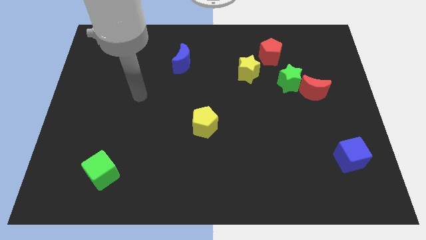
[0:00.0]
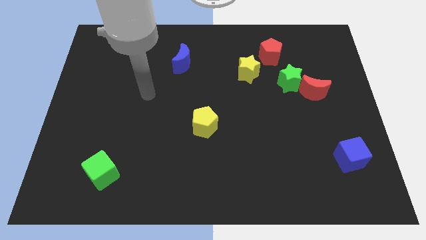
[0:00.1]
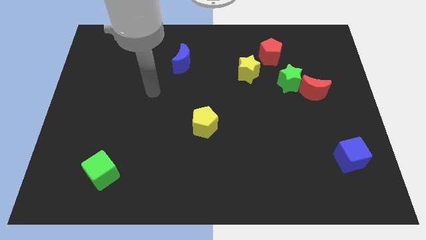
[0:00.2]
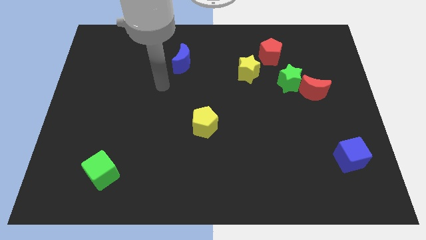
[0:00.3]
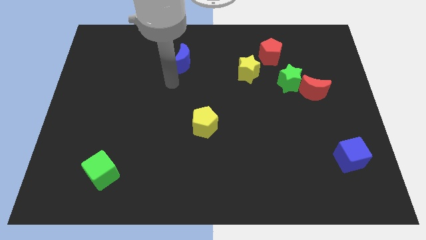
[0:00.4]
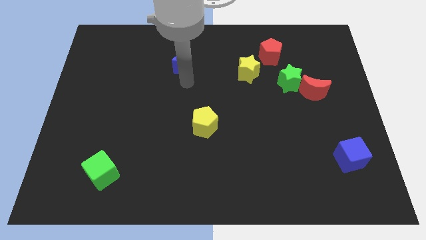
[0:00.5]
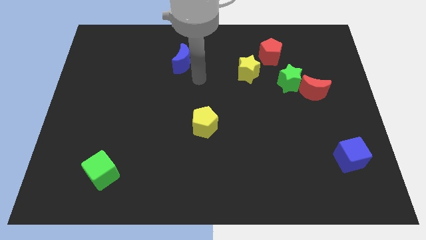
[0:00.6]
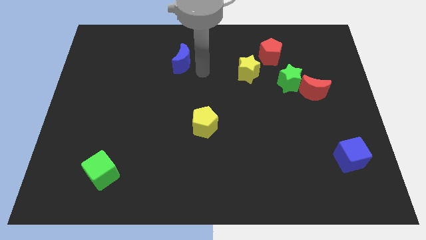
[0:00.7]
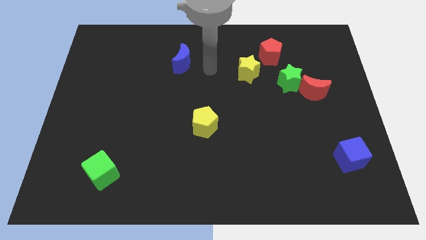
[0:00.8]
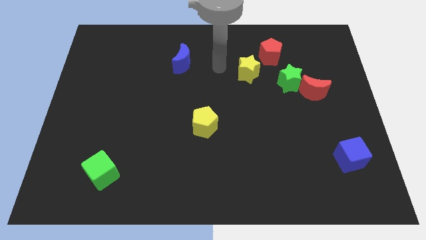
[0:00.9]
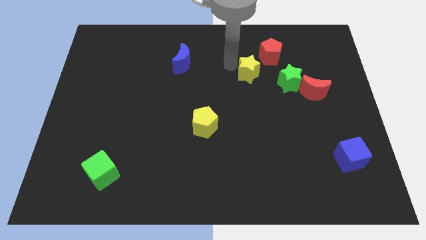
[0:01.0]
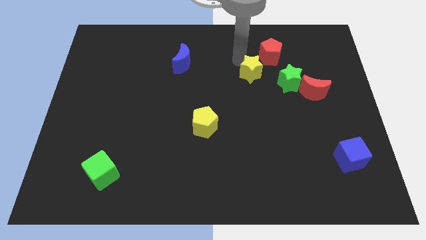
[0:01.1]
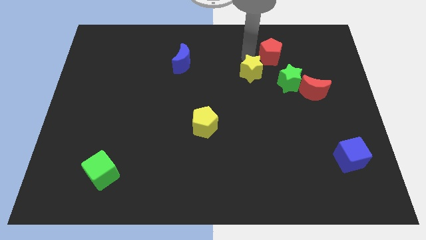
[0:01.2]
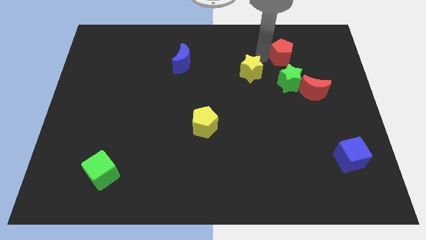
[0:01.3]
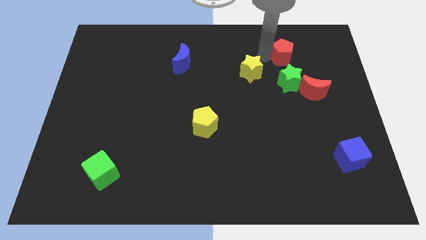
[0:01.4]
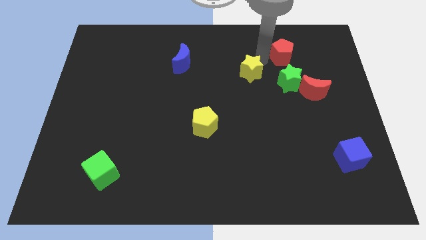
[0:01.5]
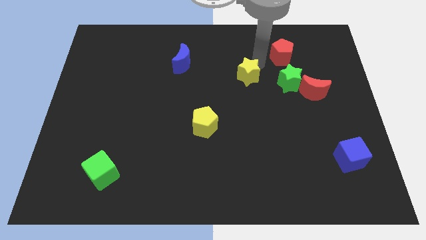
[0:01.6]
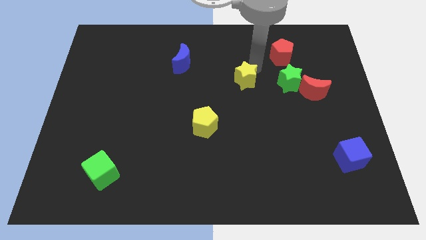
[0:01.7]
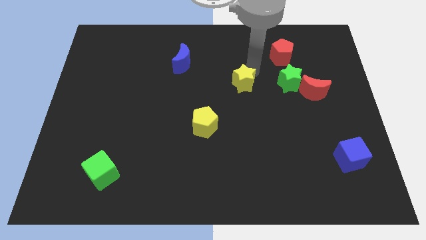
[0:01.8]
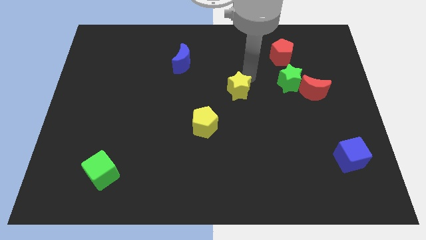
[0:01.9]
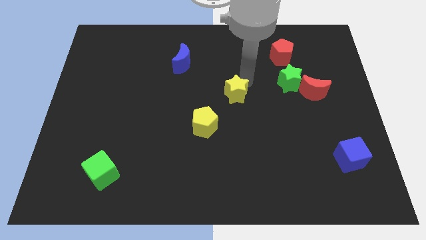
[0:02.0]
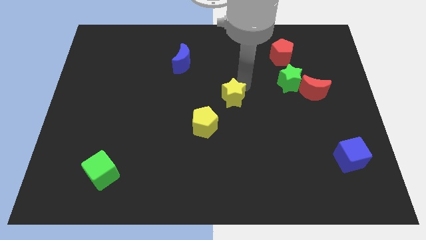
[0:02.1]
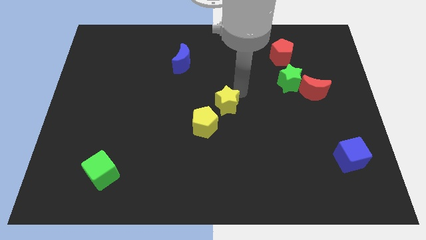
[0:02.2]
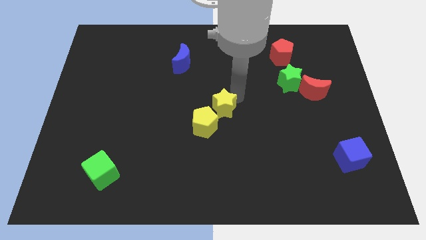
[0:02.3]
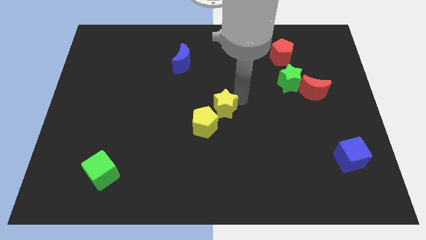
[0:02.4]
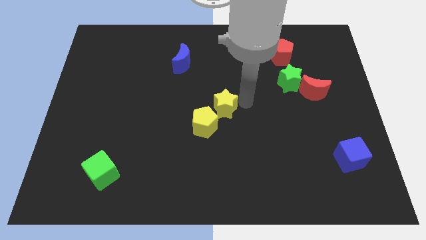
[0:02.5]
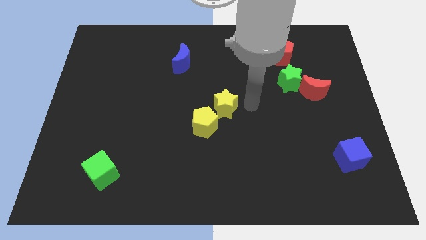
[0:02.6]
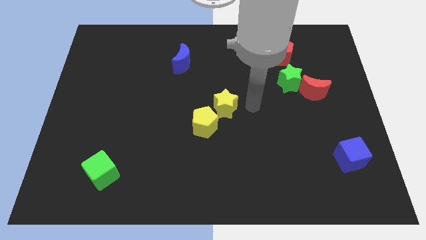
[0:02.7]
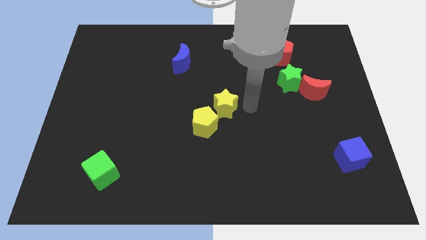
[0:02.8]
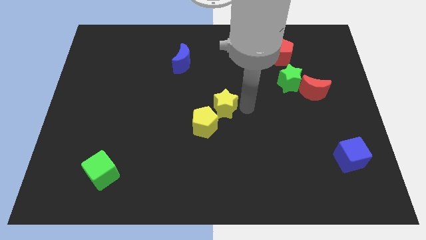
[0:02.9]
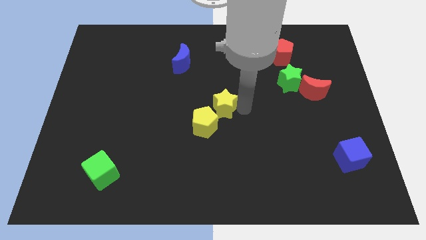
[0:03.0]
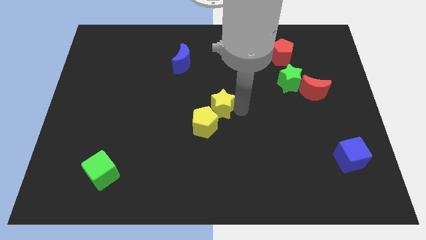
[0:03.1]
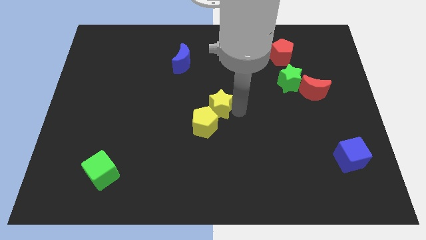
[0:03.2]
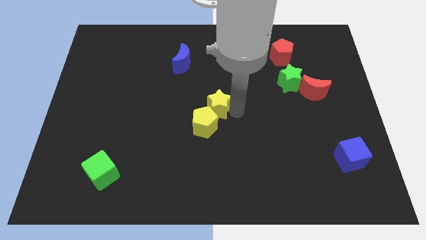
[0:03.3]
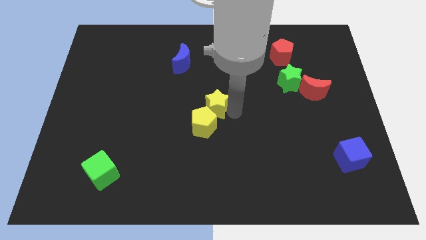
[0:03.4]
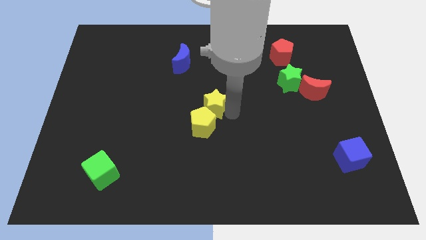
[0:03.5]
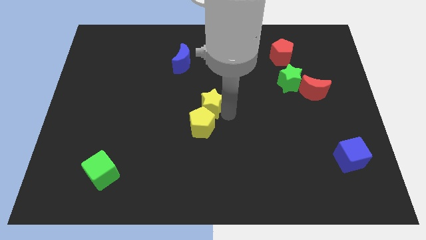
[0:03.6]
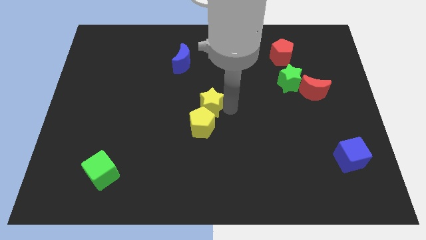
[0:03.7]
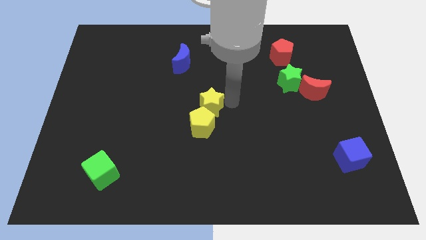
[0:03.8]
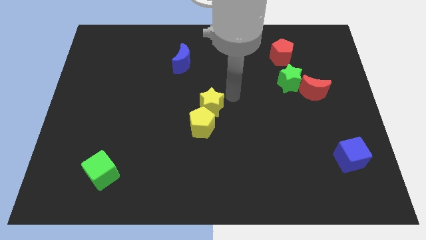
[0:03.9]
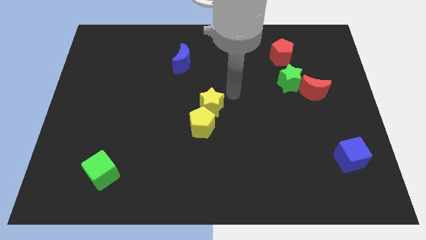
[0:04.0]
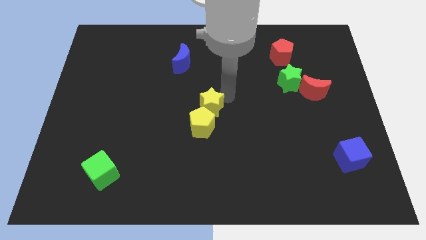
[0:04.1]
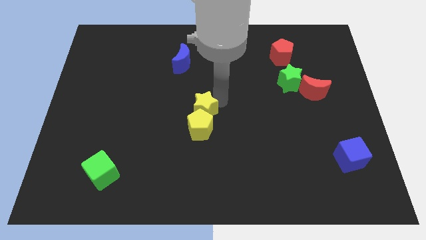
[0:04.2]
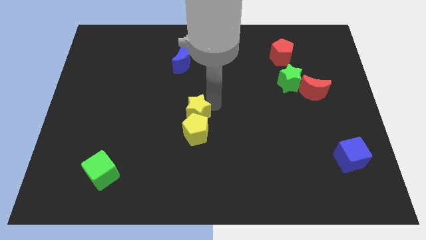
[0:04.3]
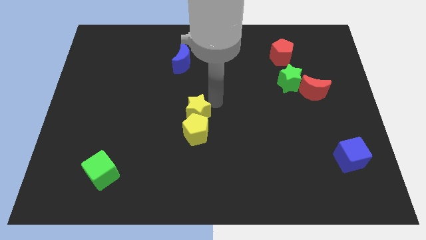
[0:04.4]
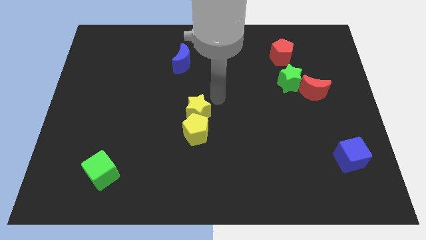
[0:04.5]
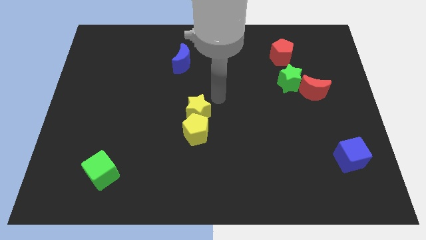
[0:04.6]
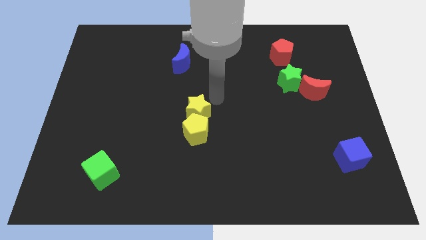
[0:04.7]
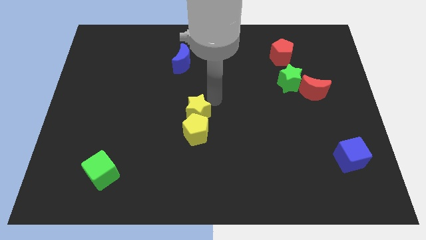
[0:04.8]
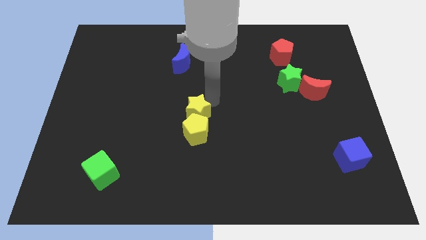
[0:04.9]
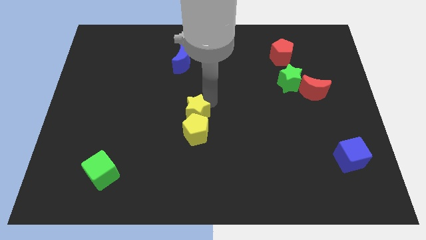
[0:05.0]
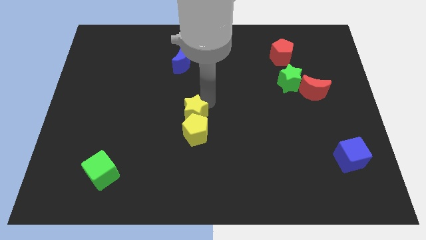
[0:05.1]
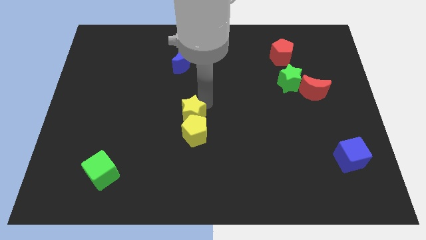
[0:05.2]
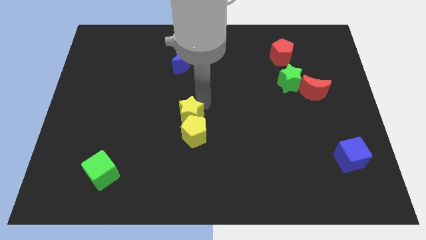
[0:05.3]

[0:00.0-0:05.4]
push the yellow star downwards and to the left

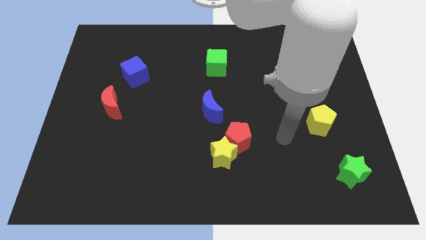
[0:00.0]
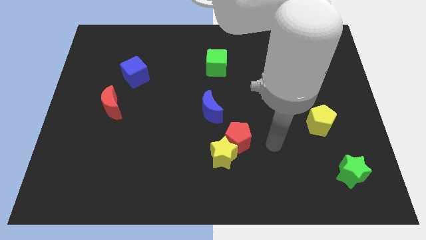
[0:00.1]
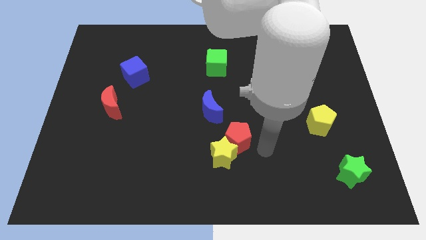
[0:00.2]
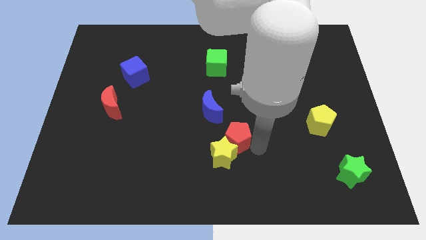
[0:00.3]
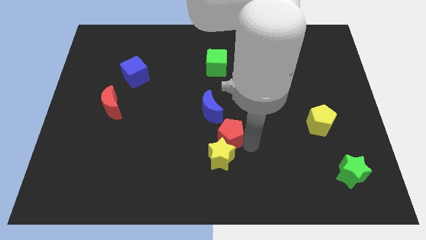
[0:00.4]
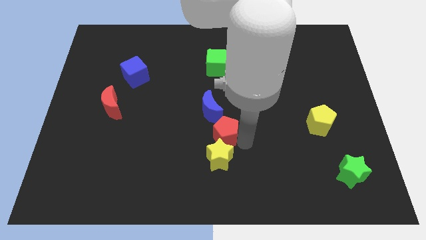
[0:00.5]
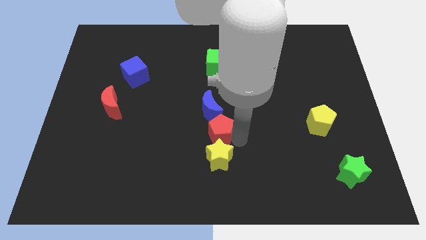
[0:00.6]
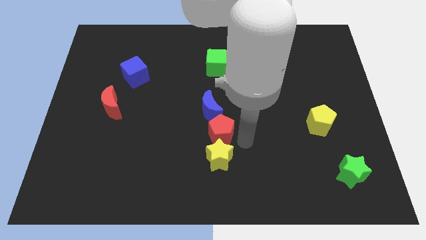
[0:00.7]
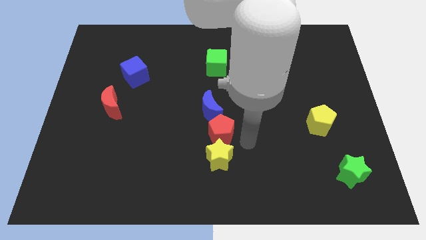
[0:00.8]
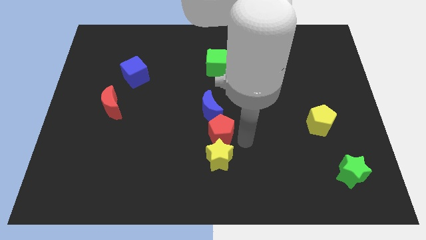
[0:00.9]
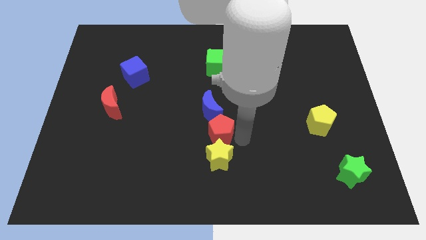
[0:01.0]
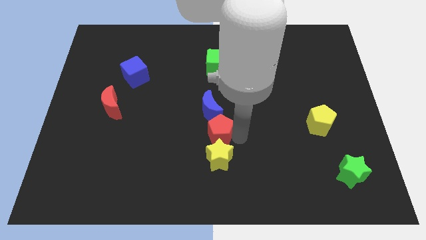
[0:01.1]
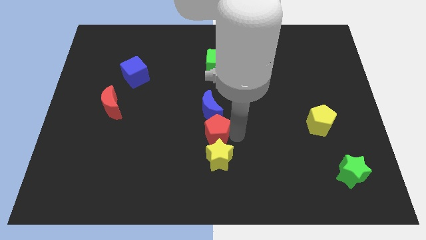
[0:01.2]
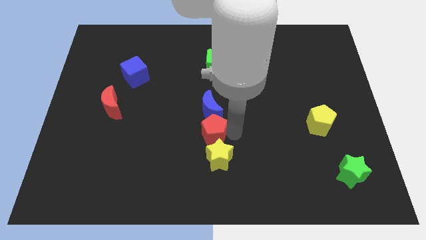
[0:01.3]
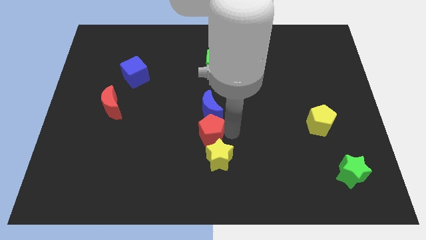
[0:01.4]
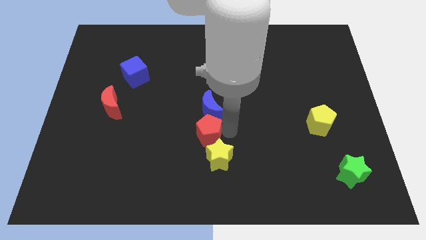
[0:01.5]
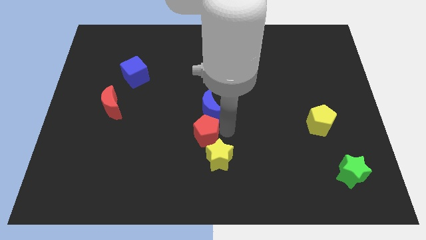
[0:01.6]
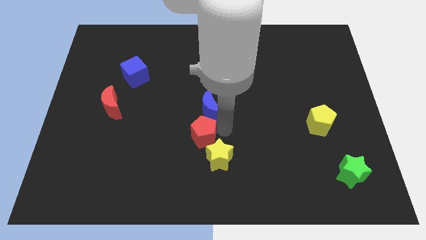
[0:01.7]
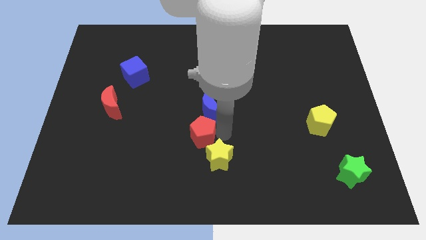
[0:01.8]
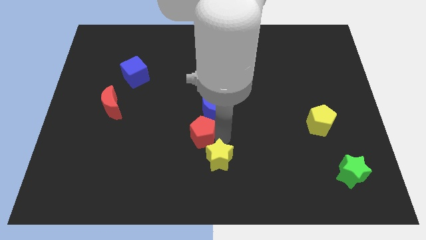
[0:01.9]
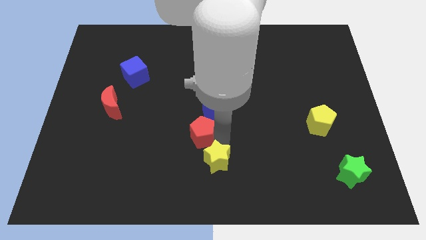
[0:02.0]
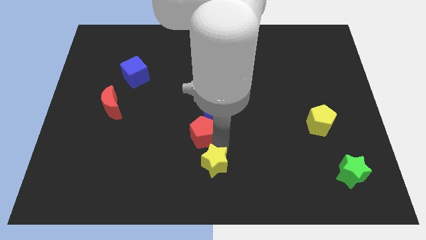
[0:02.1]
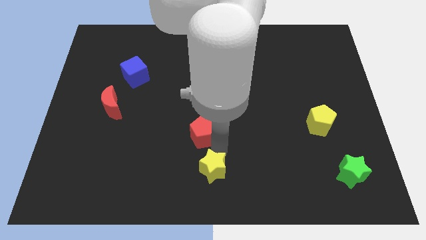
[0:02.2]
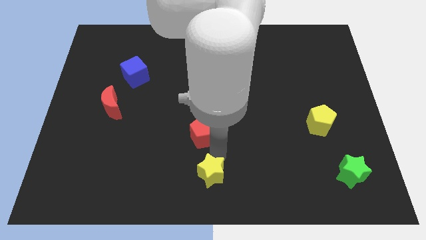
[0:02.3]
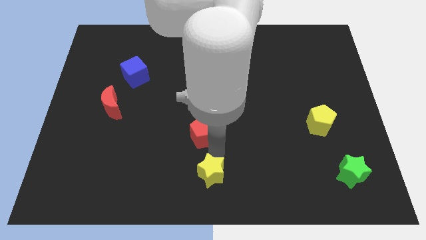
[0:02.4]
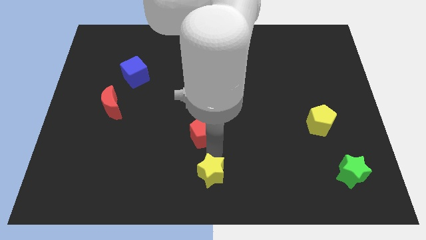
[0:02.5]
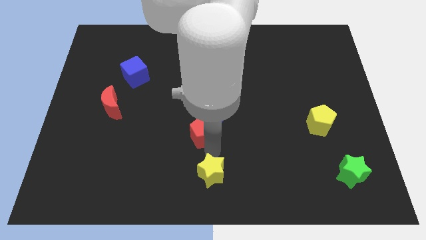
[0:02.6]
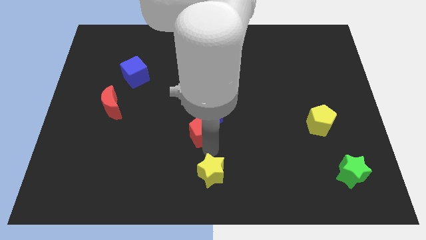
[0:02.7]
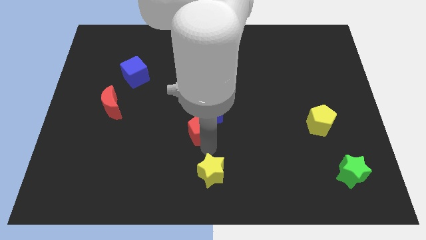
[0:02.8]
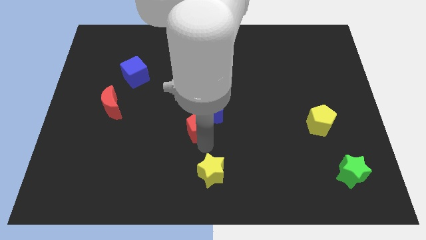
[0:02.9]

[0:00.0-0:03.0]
push the red pentagon upwards and left diagonally a bit
